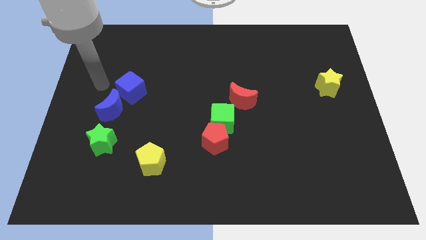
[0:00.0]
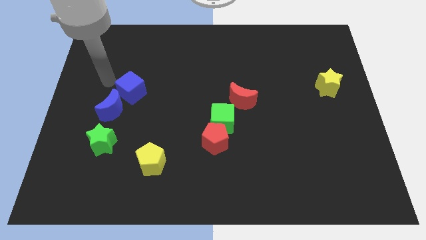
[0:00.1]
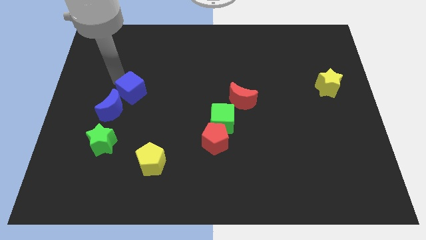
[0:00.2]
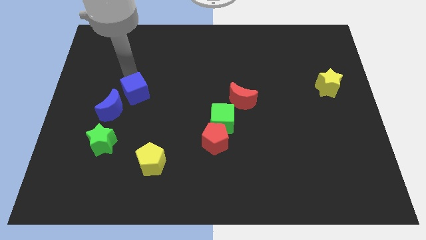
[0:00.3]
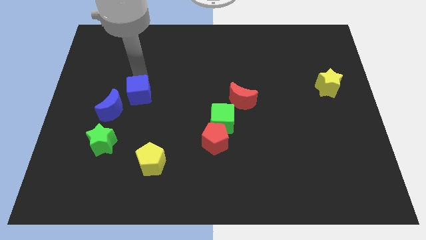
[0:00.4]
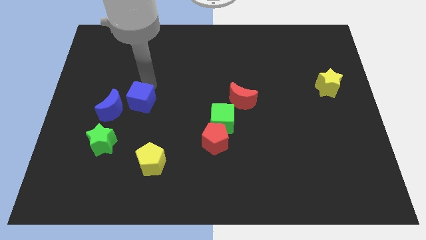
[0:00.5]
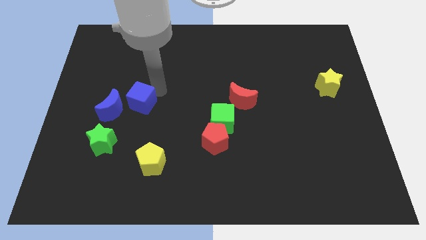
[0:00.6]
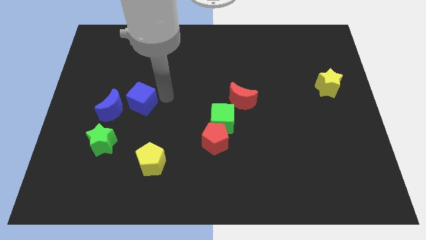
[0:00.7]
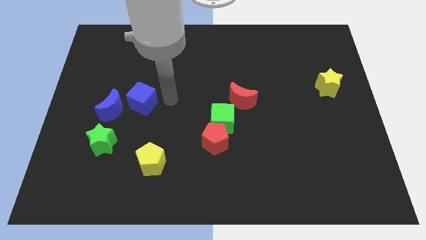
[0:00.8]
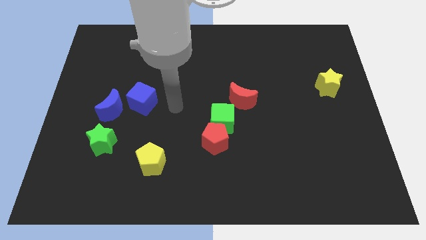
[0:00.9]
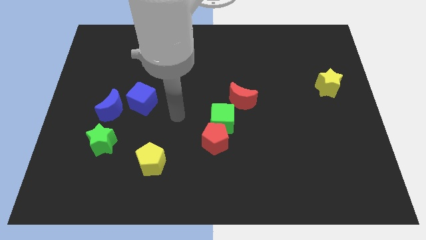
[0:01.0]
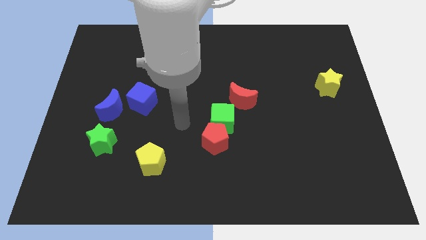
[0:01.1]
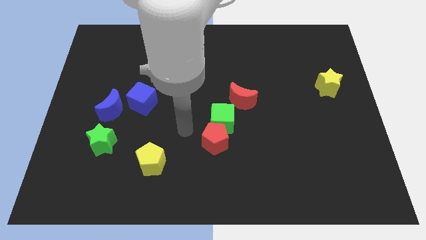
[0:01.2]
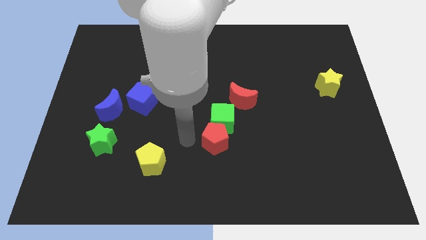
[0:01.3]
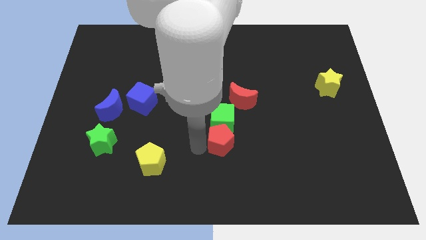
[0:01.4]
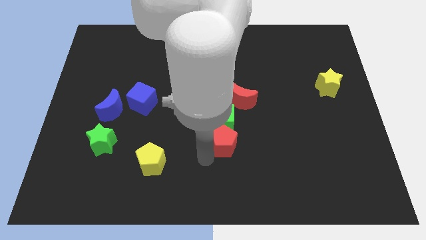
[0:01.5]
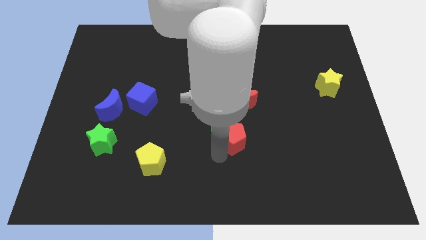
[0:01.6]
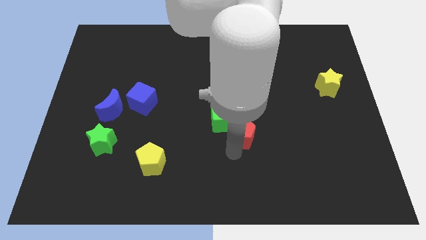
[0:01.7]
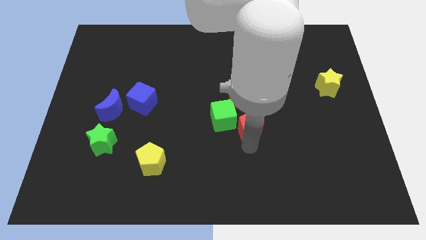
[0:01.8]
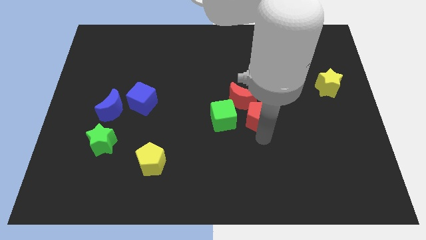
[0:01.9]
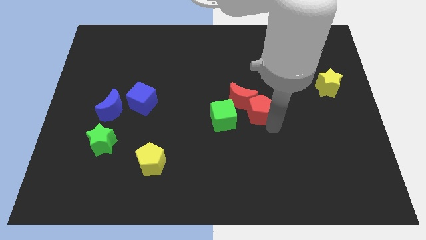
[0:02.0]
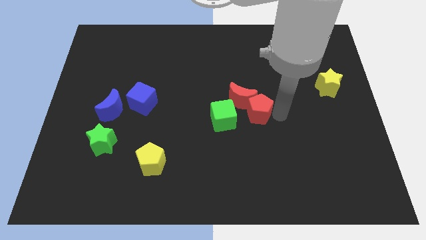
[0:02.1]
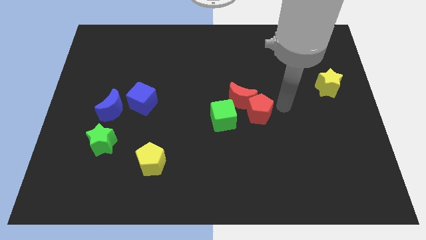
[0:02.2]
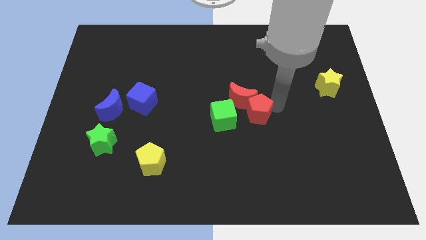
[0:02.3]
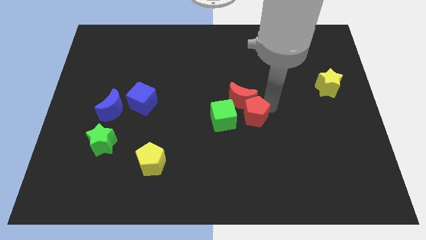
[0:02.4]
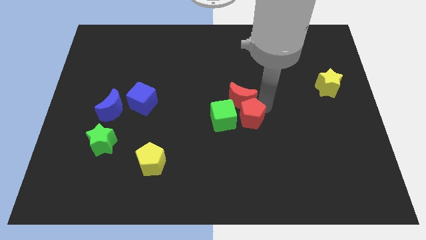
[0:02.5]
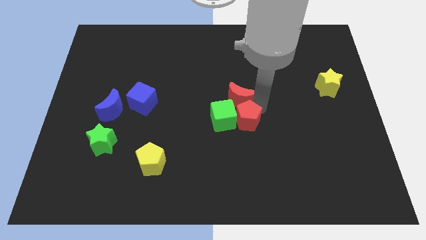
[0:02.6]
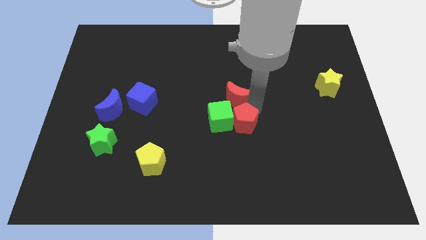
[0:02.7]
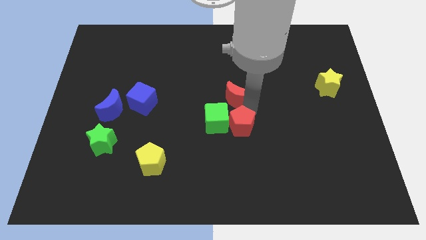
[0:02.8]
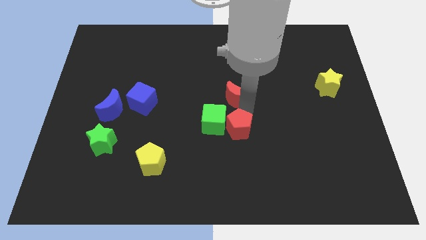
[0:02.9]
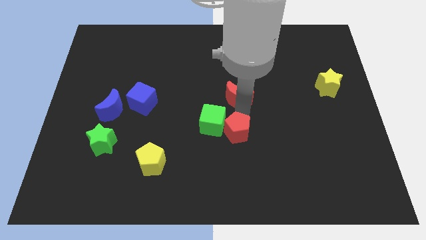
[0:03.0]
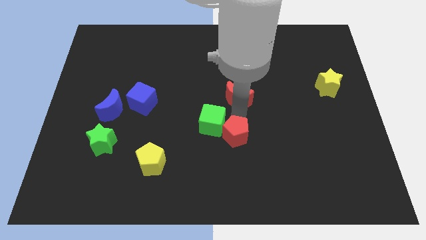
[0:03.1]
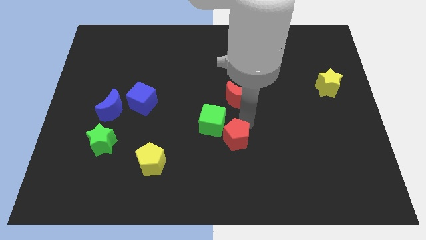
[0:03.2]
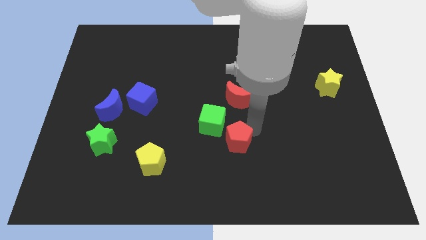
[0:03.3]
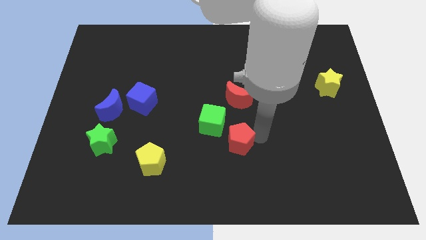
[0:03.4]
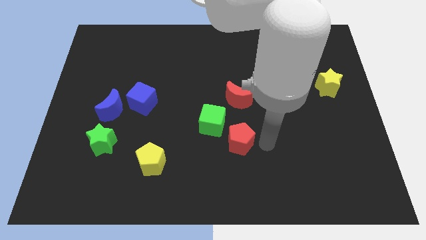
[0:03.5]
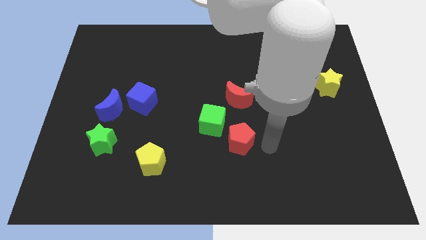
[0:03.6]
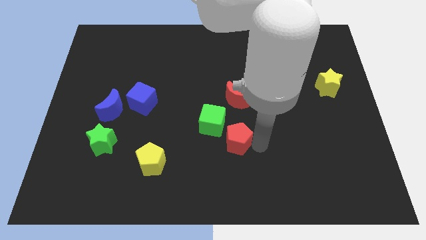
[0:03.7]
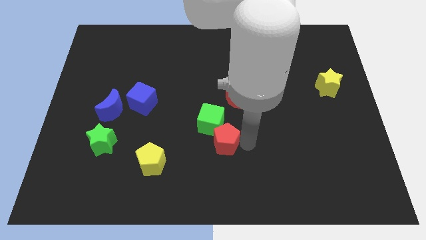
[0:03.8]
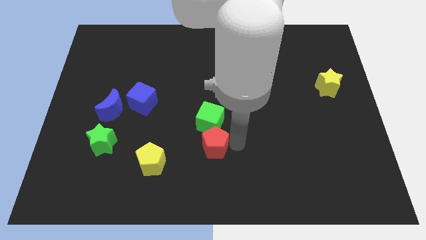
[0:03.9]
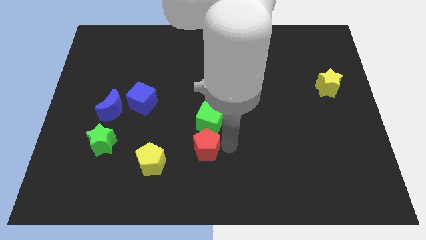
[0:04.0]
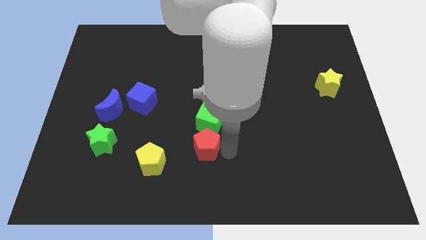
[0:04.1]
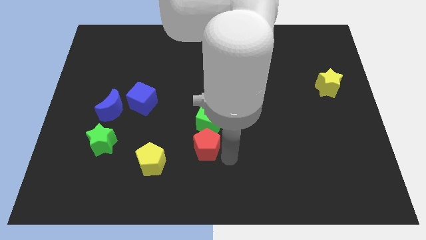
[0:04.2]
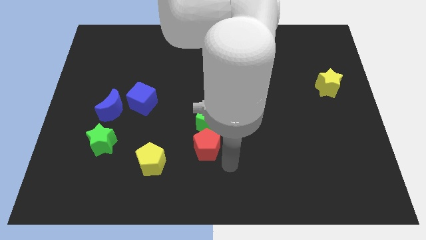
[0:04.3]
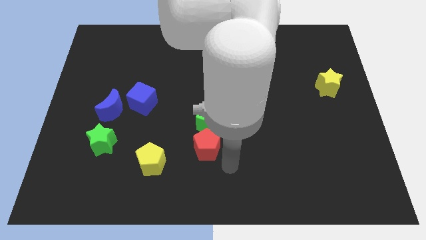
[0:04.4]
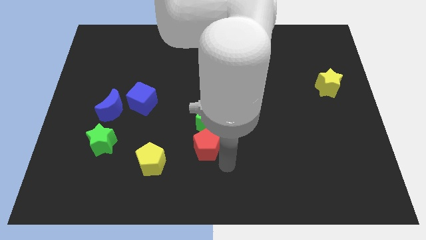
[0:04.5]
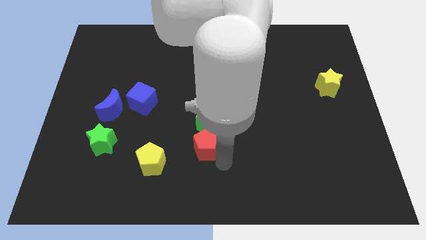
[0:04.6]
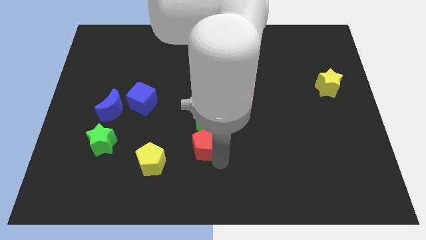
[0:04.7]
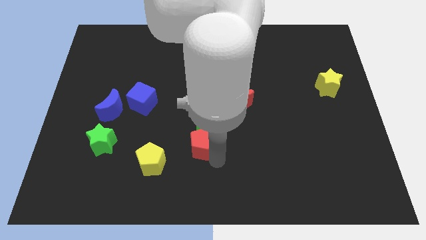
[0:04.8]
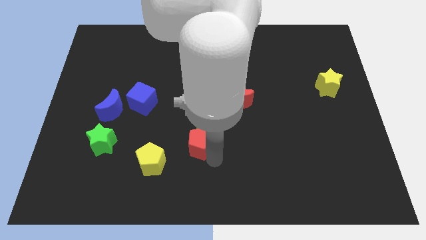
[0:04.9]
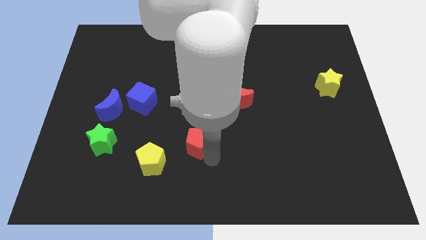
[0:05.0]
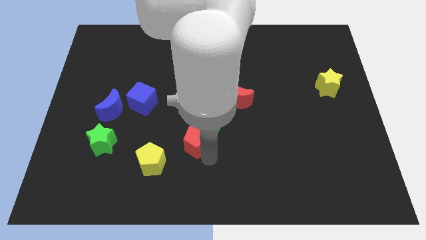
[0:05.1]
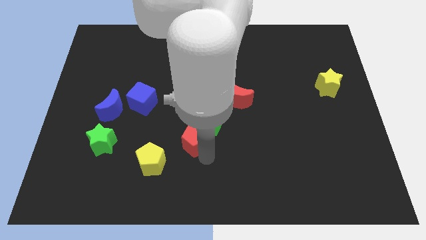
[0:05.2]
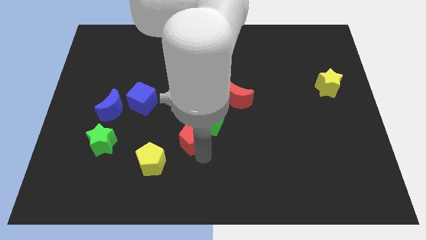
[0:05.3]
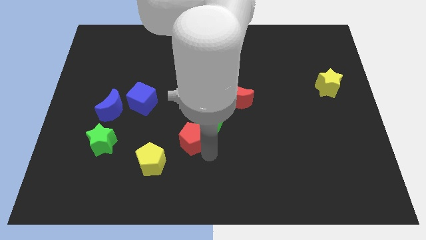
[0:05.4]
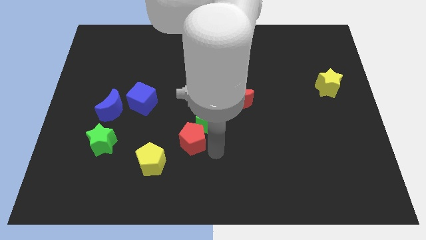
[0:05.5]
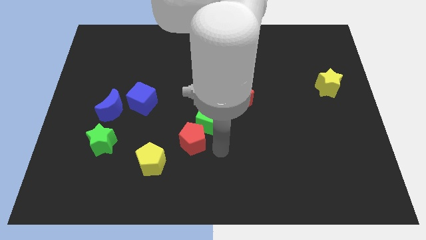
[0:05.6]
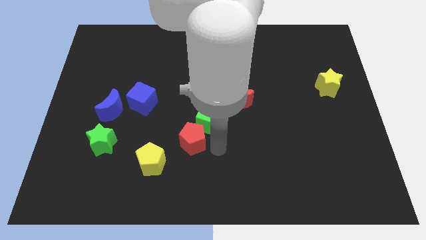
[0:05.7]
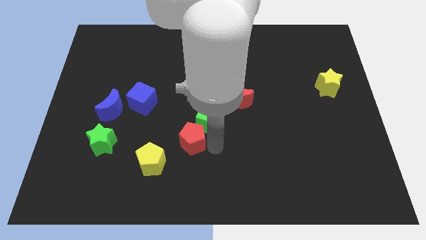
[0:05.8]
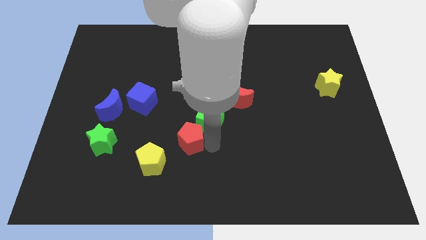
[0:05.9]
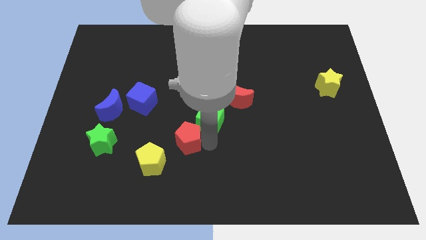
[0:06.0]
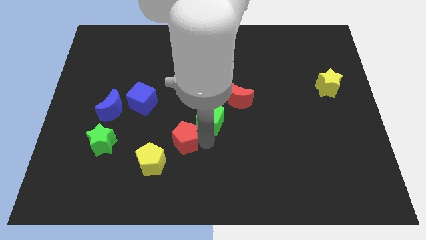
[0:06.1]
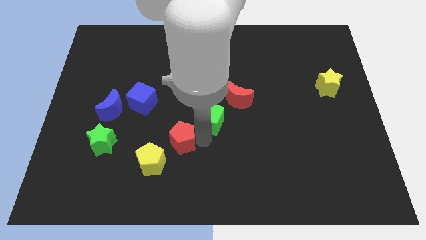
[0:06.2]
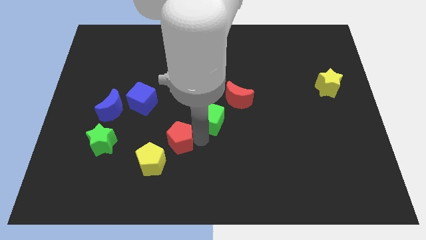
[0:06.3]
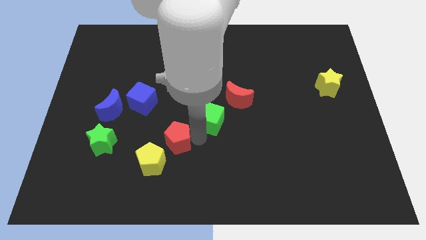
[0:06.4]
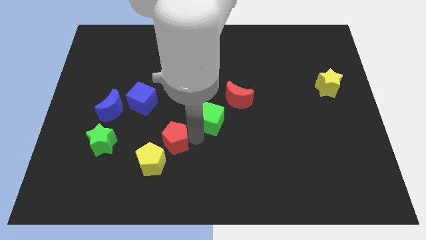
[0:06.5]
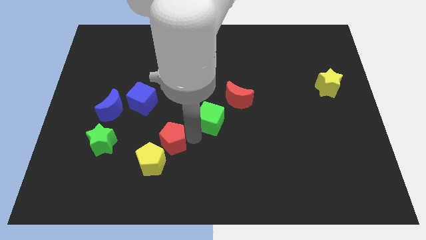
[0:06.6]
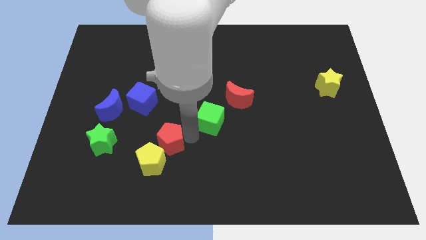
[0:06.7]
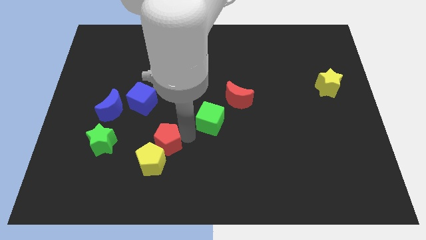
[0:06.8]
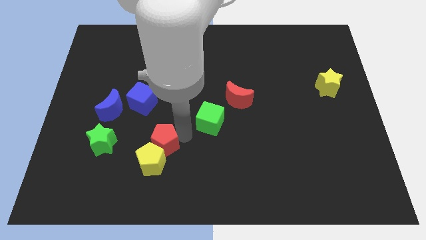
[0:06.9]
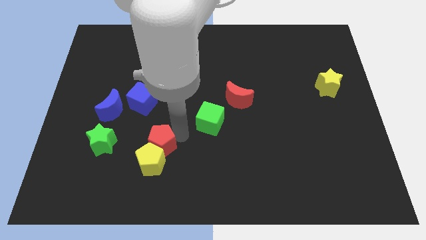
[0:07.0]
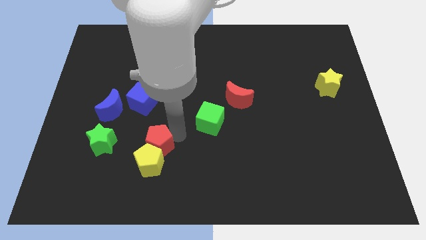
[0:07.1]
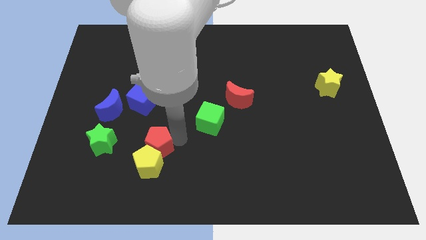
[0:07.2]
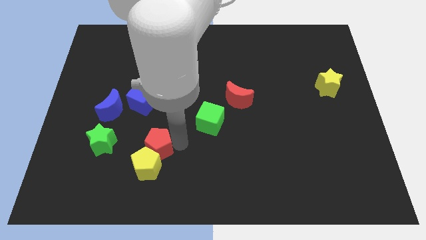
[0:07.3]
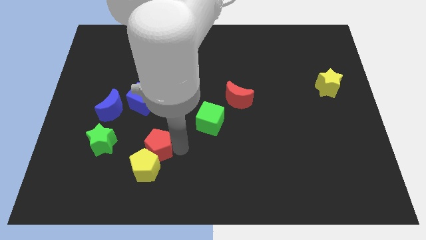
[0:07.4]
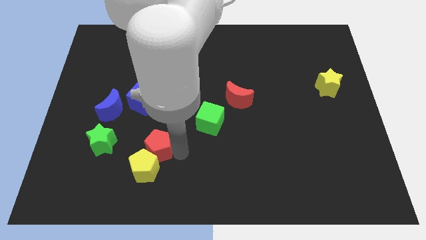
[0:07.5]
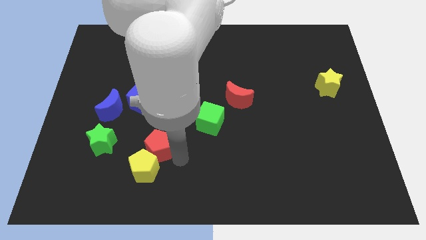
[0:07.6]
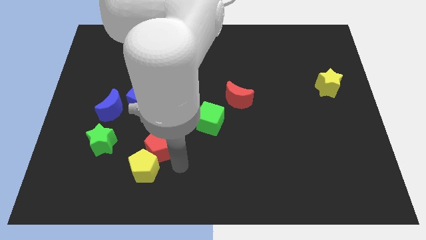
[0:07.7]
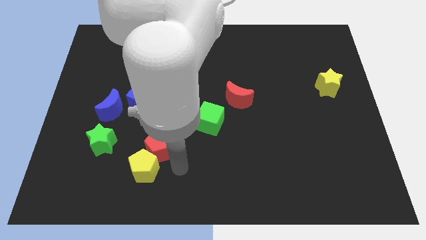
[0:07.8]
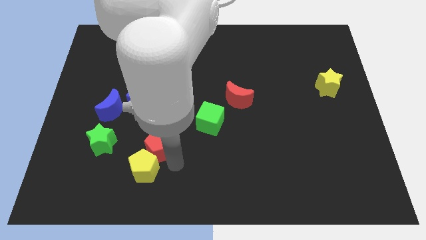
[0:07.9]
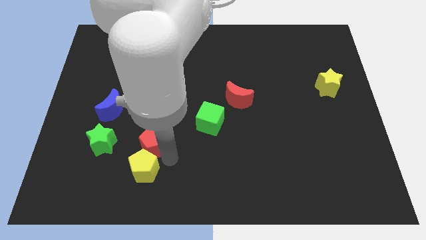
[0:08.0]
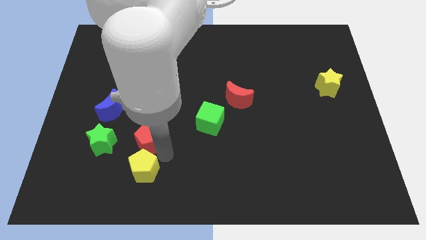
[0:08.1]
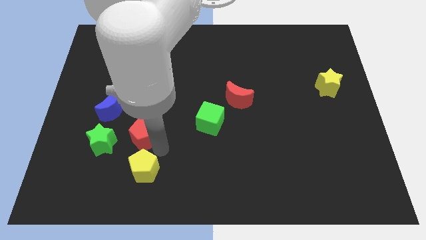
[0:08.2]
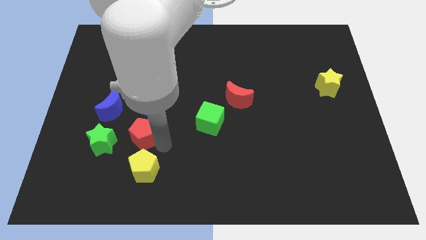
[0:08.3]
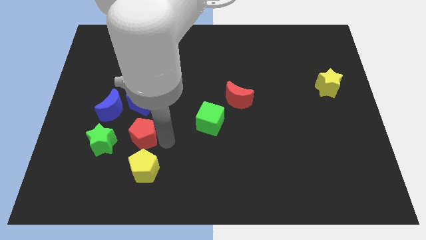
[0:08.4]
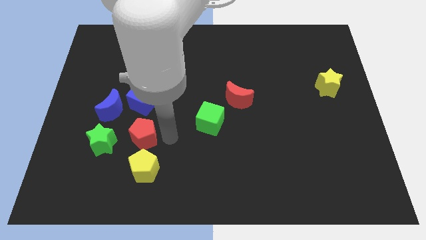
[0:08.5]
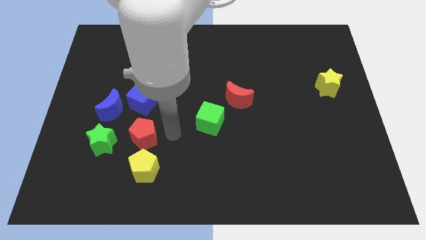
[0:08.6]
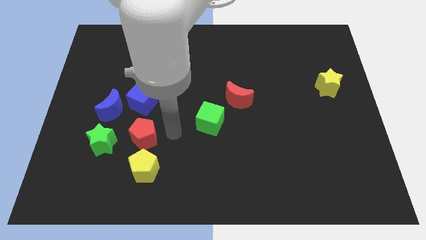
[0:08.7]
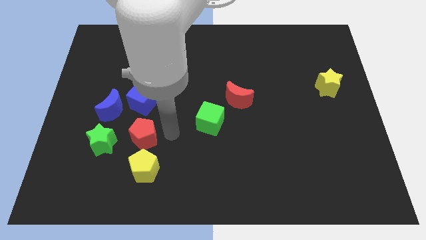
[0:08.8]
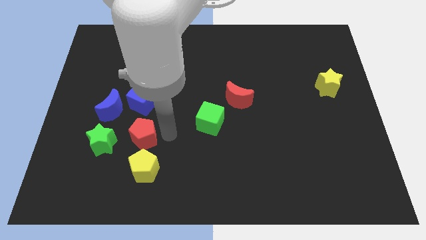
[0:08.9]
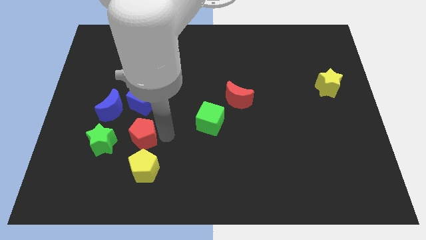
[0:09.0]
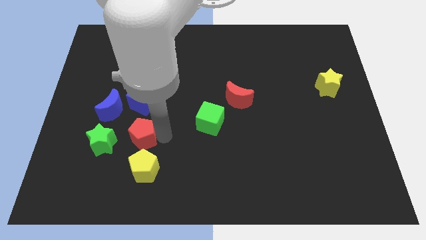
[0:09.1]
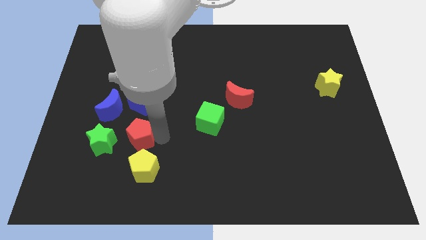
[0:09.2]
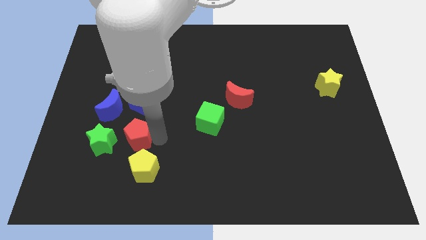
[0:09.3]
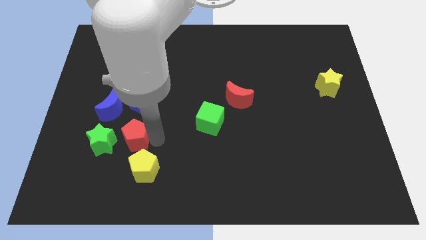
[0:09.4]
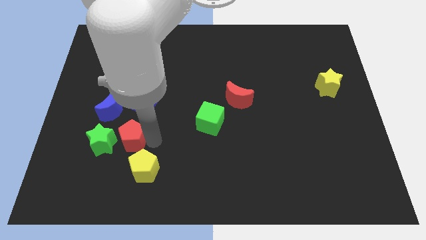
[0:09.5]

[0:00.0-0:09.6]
push the red pentagon close to the green star
